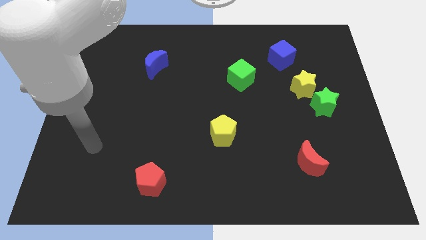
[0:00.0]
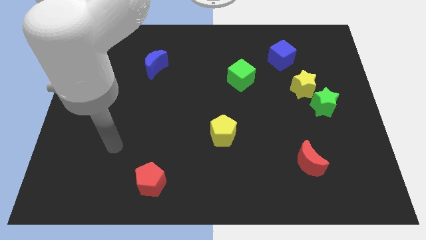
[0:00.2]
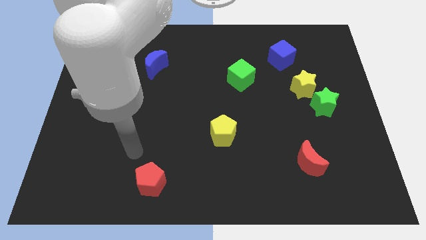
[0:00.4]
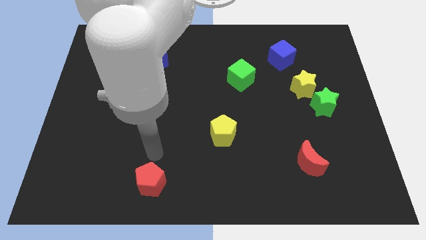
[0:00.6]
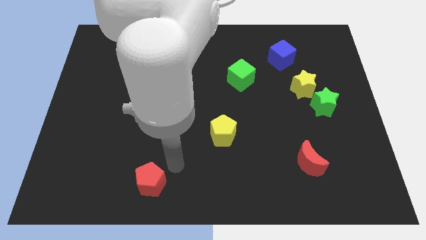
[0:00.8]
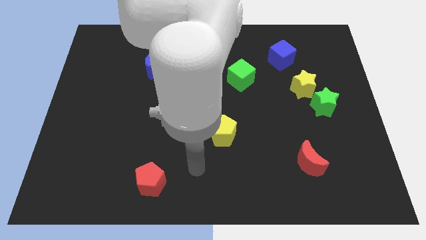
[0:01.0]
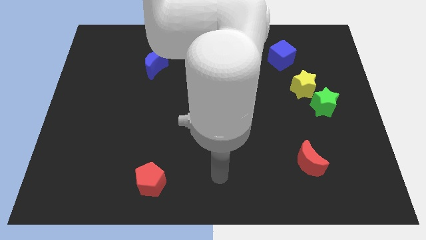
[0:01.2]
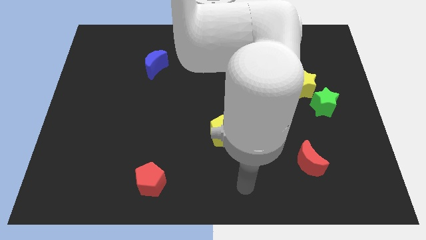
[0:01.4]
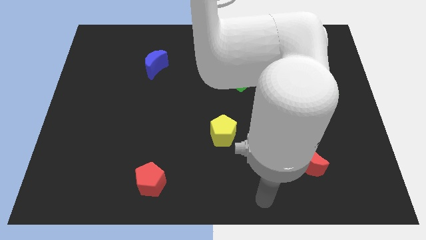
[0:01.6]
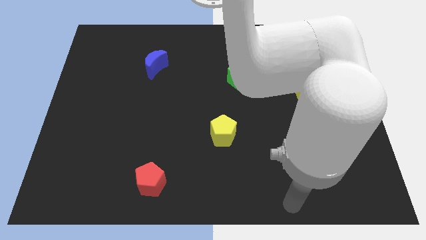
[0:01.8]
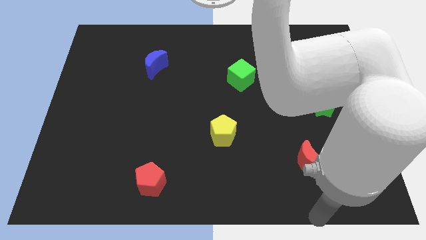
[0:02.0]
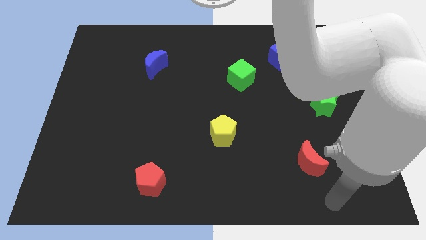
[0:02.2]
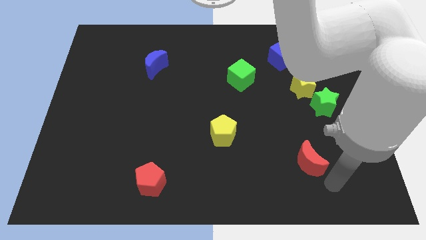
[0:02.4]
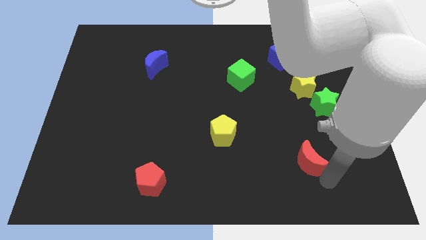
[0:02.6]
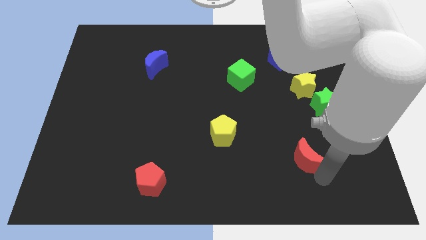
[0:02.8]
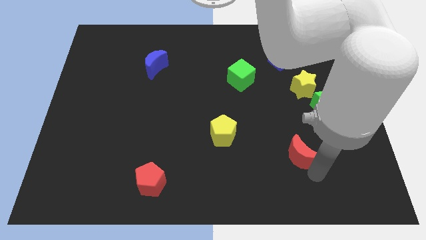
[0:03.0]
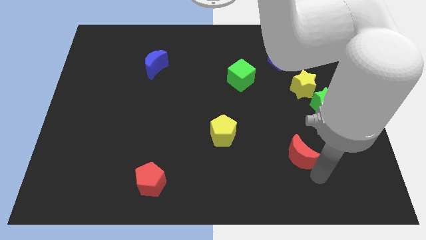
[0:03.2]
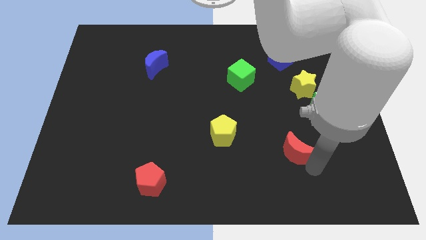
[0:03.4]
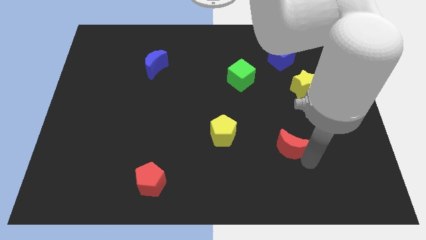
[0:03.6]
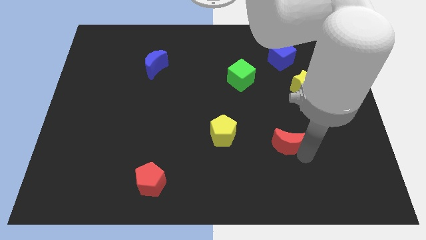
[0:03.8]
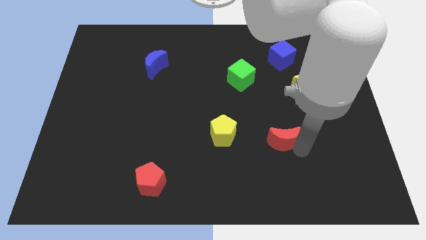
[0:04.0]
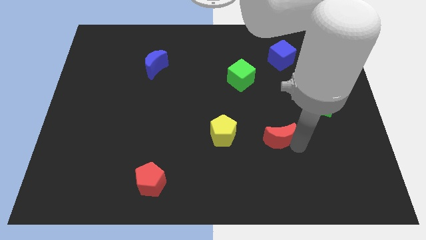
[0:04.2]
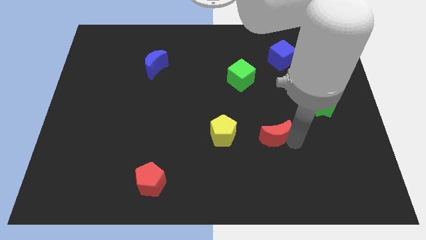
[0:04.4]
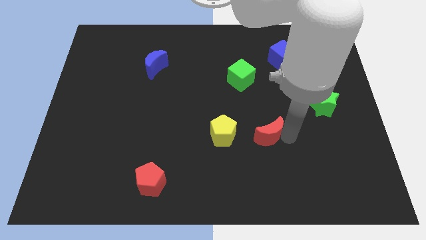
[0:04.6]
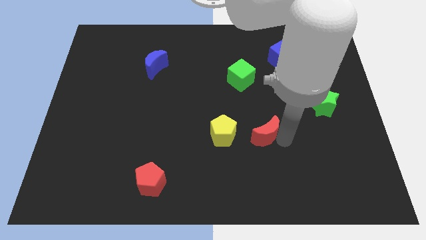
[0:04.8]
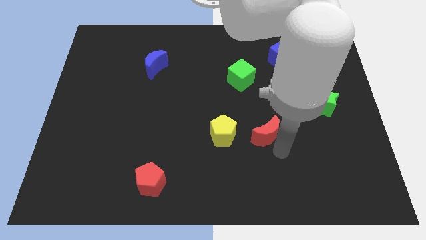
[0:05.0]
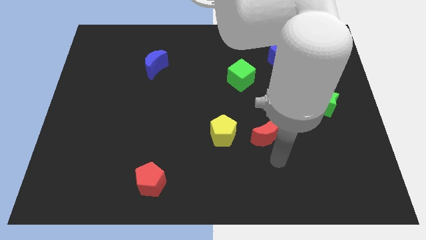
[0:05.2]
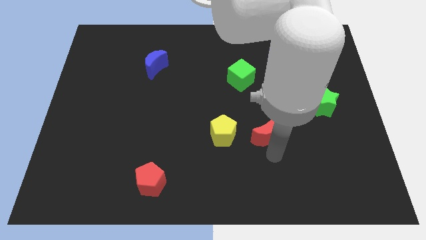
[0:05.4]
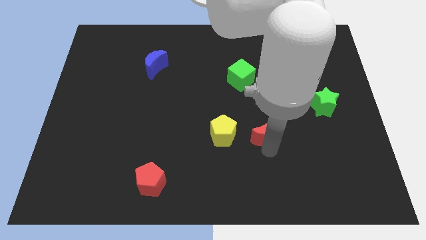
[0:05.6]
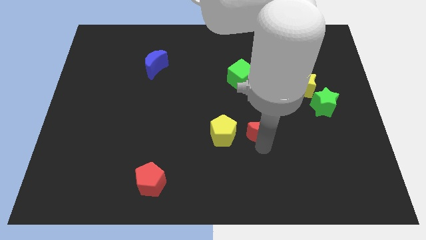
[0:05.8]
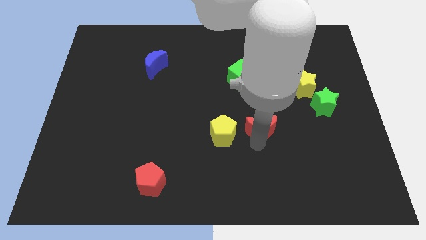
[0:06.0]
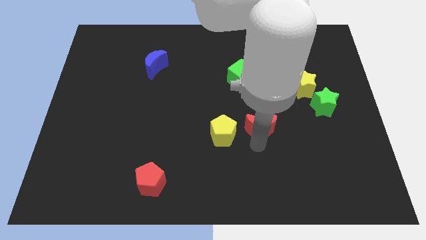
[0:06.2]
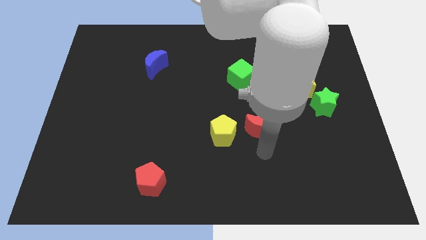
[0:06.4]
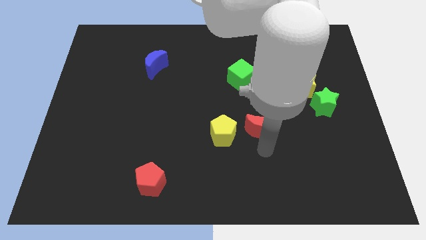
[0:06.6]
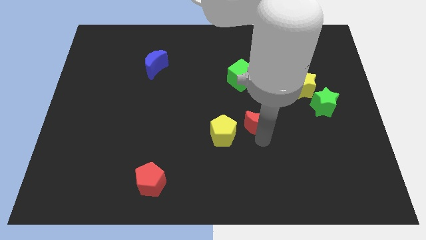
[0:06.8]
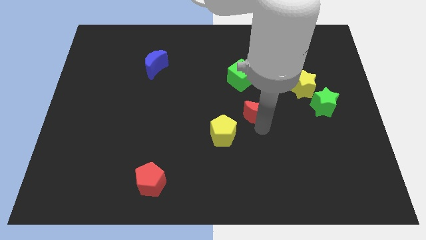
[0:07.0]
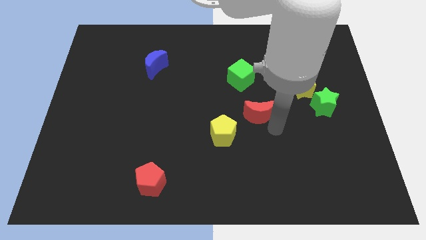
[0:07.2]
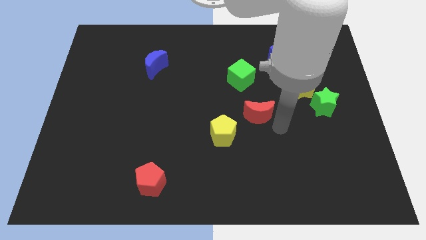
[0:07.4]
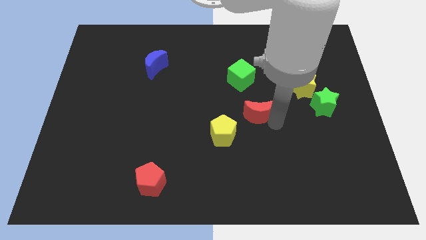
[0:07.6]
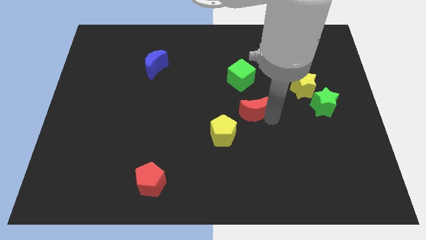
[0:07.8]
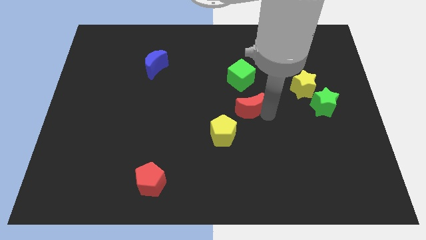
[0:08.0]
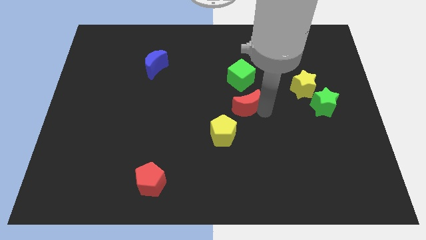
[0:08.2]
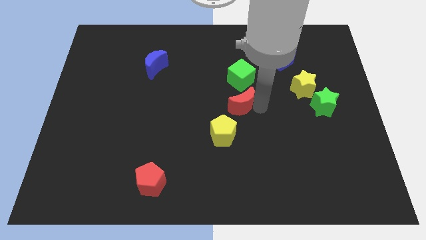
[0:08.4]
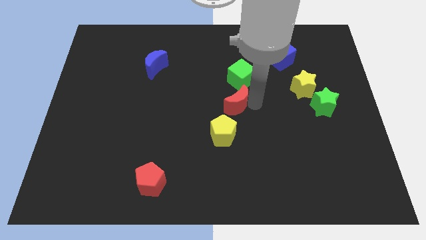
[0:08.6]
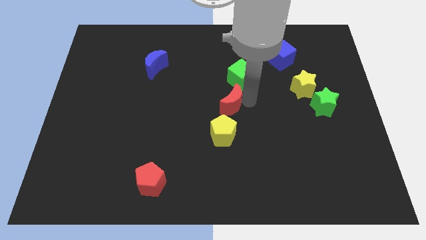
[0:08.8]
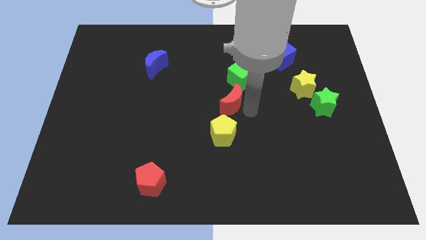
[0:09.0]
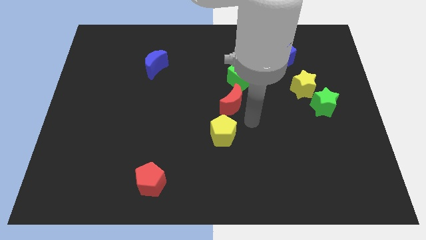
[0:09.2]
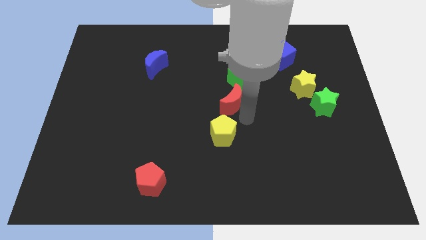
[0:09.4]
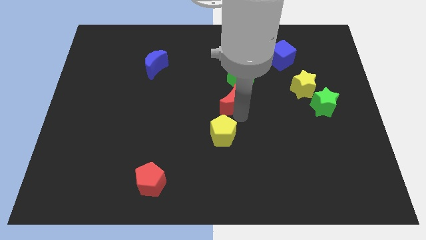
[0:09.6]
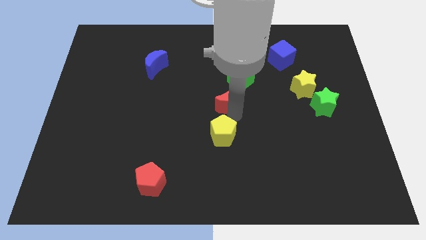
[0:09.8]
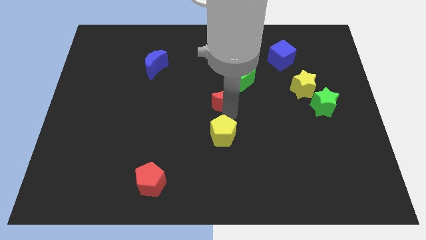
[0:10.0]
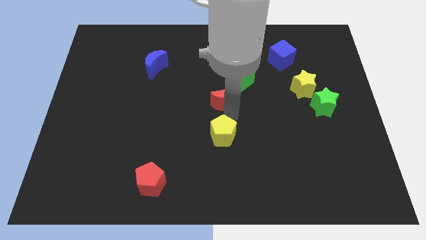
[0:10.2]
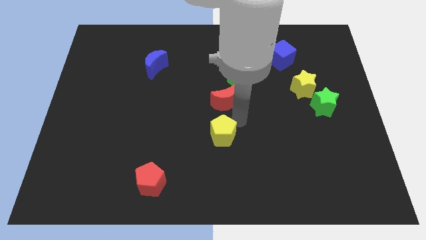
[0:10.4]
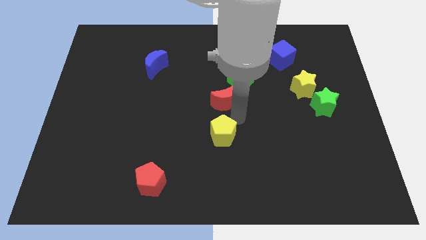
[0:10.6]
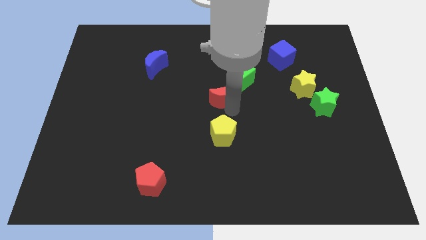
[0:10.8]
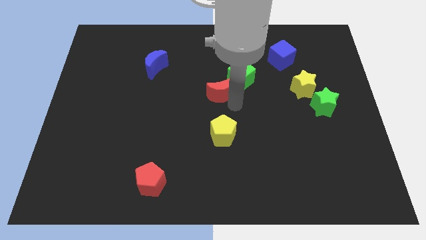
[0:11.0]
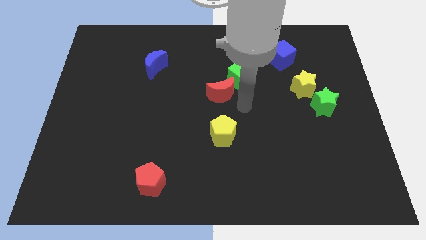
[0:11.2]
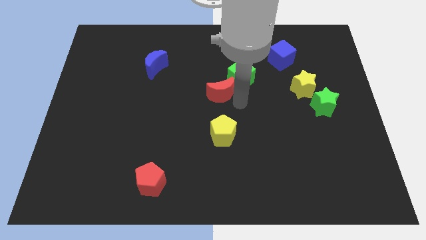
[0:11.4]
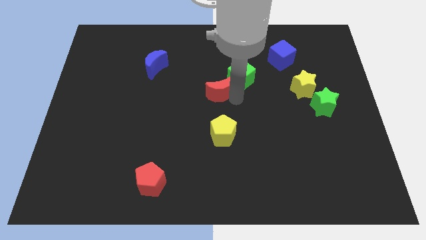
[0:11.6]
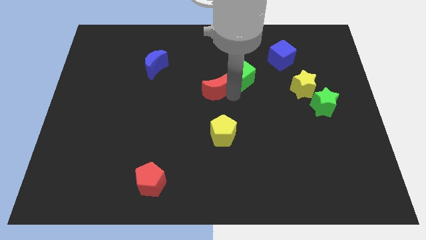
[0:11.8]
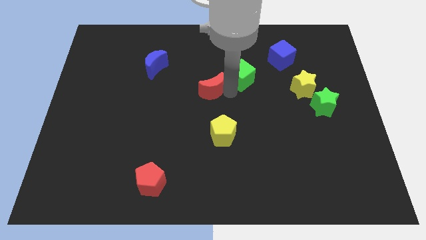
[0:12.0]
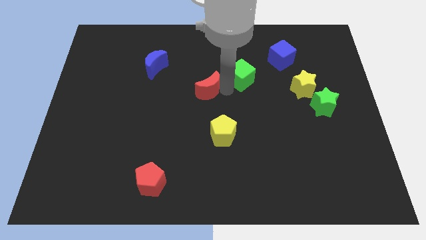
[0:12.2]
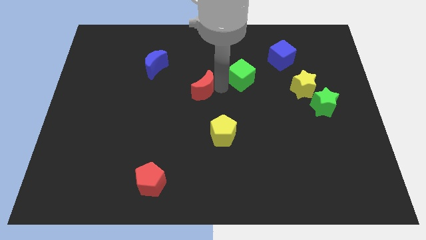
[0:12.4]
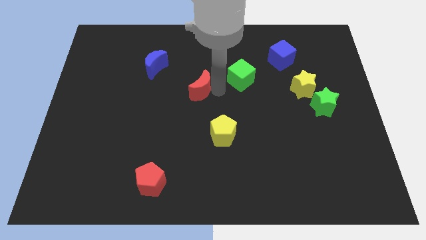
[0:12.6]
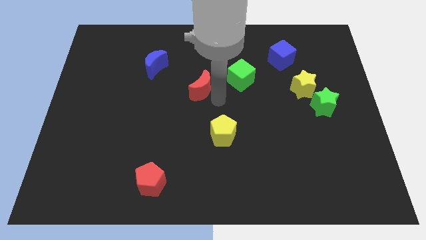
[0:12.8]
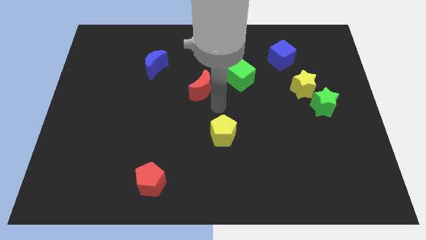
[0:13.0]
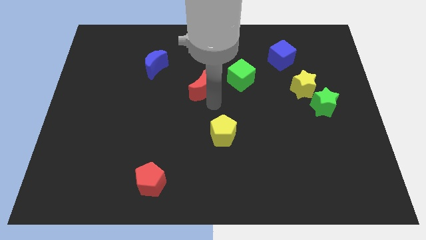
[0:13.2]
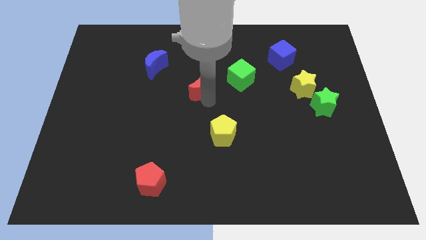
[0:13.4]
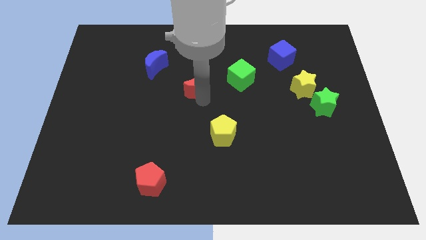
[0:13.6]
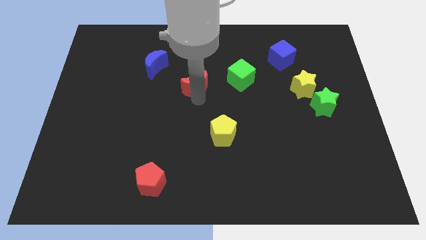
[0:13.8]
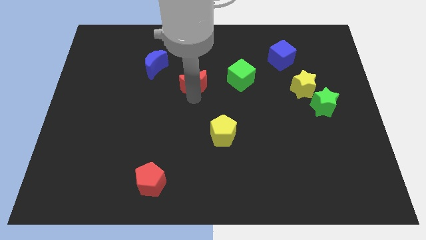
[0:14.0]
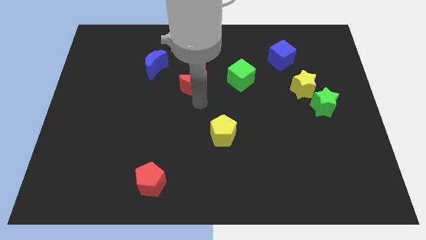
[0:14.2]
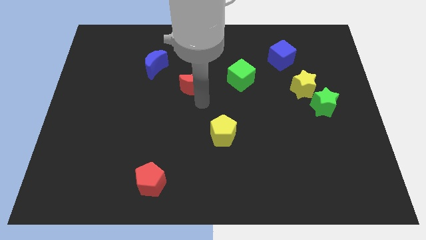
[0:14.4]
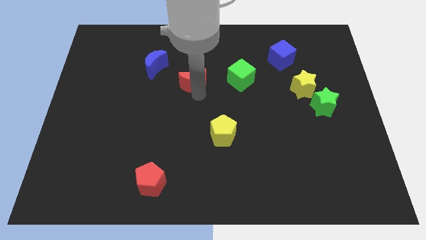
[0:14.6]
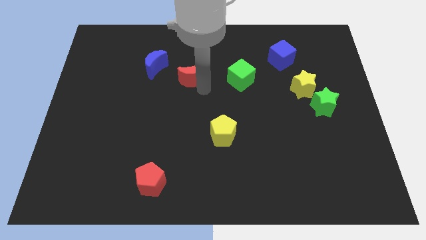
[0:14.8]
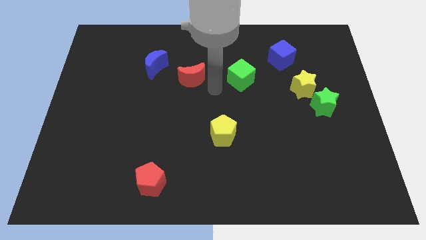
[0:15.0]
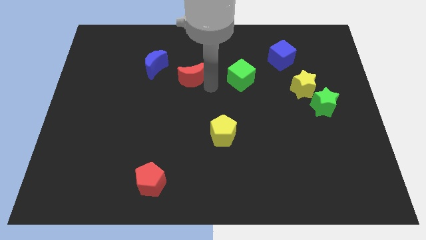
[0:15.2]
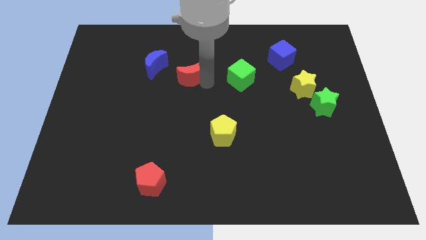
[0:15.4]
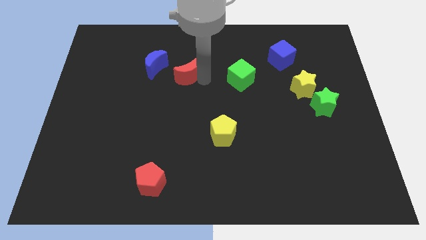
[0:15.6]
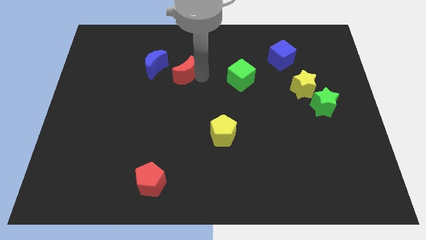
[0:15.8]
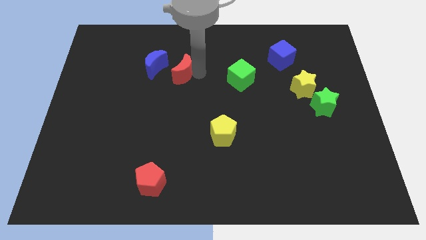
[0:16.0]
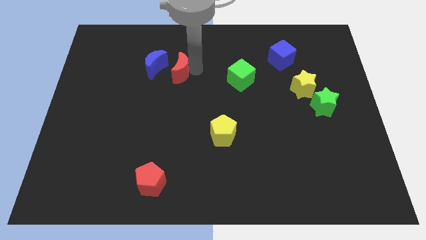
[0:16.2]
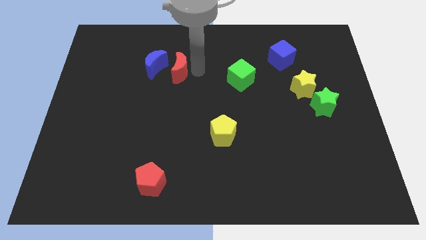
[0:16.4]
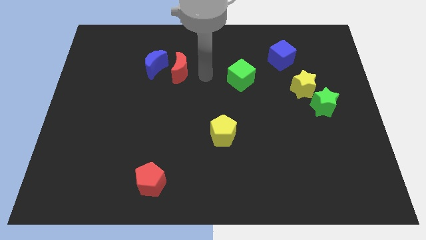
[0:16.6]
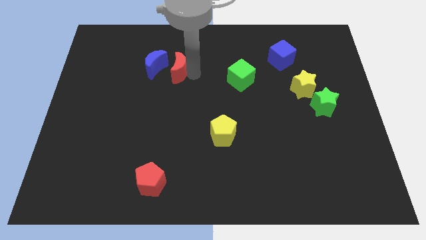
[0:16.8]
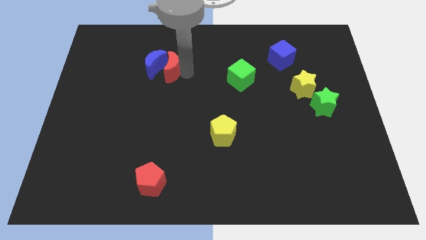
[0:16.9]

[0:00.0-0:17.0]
push the red moon next to the blue moon
